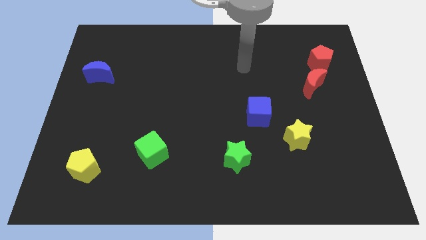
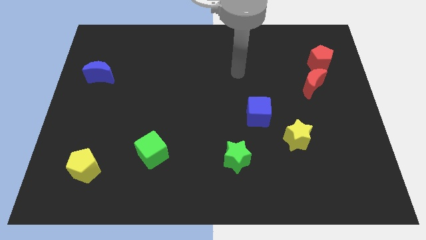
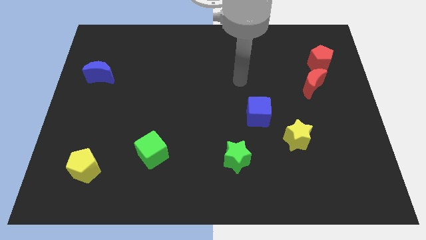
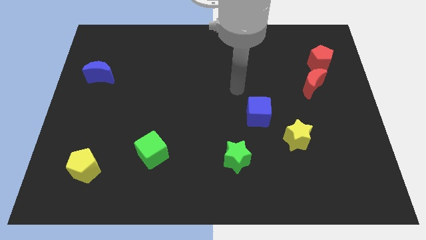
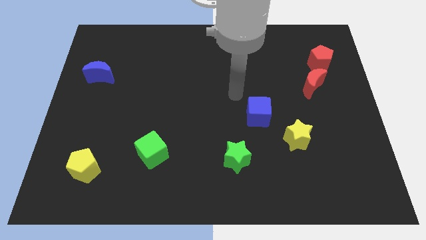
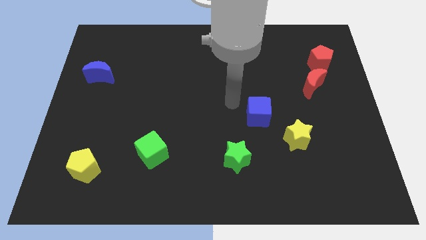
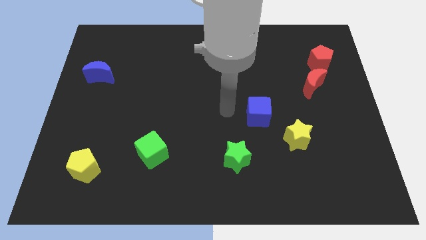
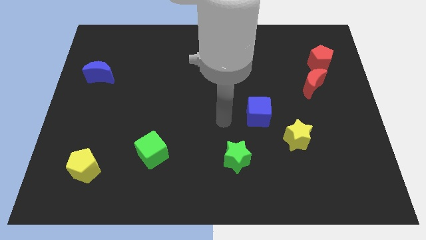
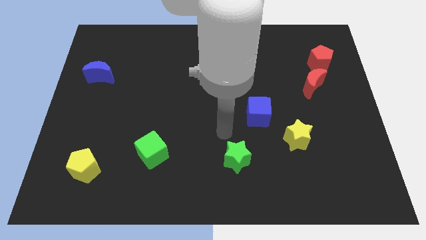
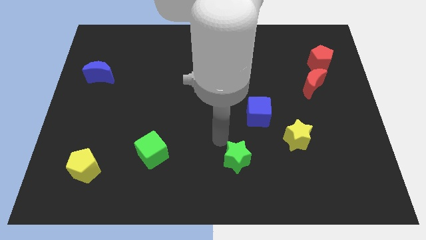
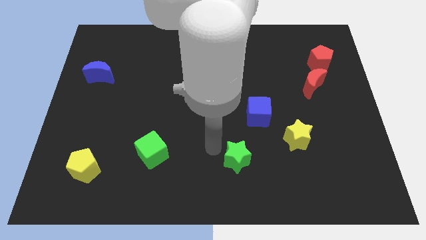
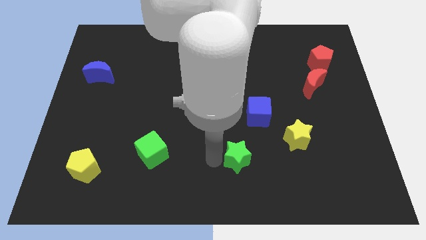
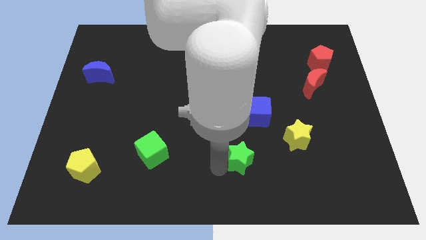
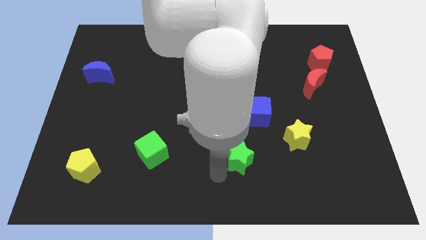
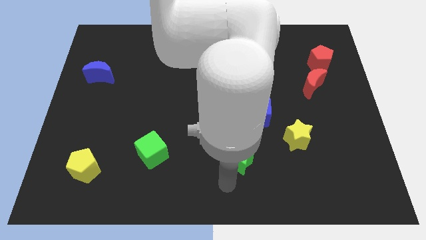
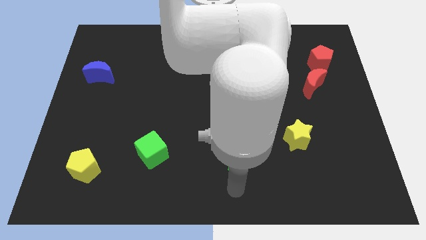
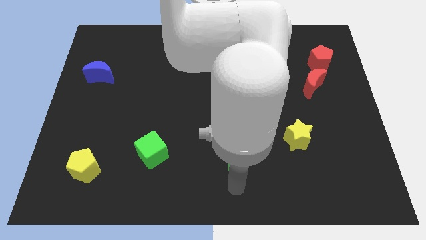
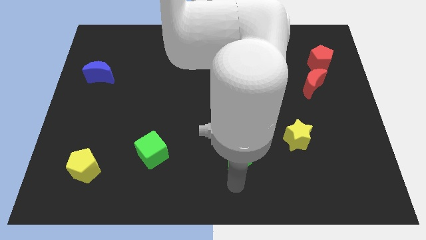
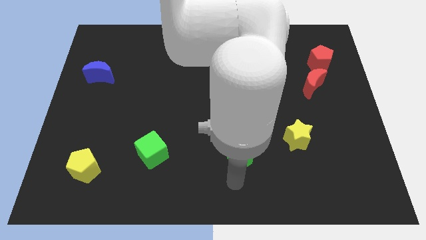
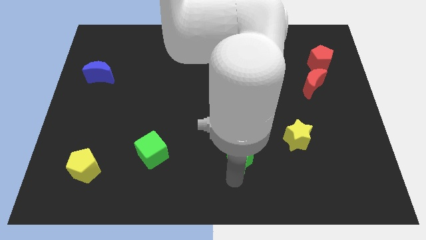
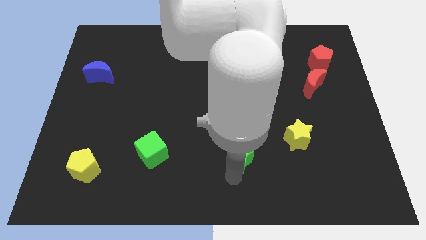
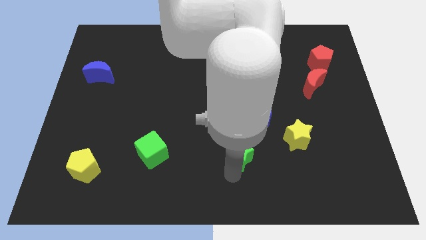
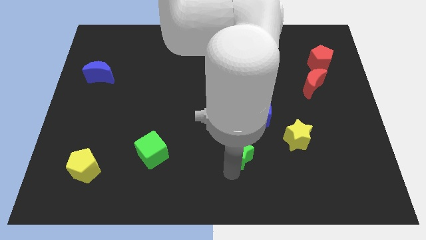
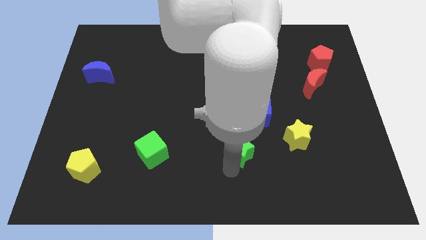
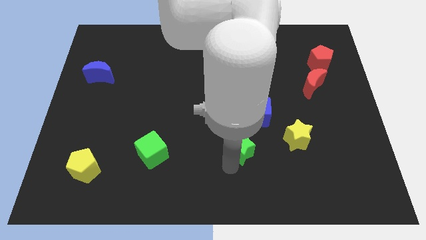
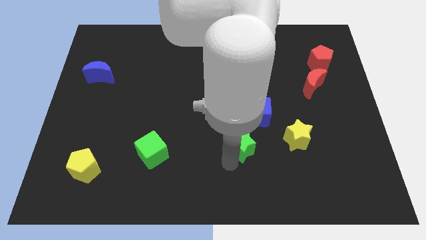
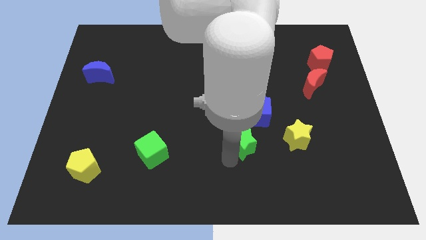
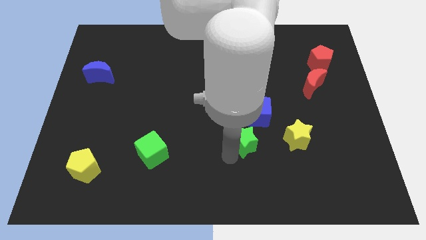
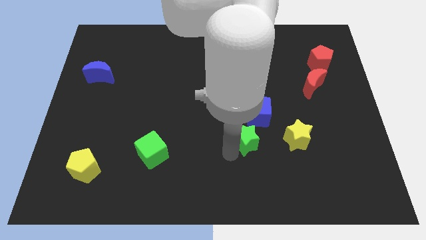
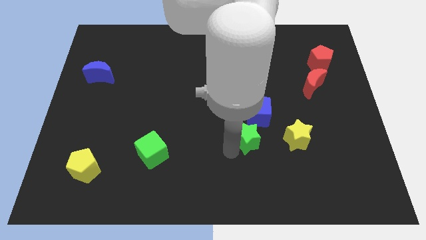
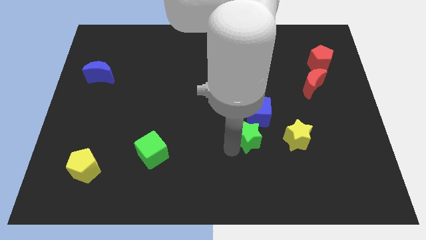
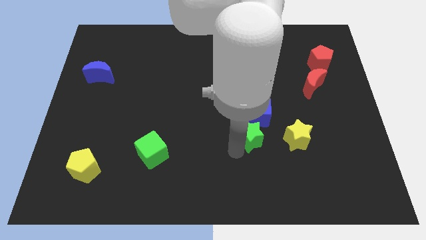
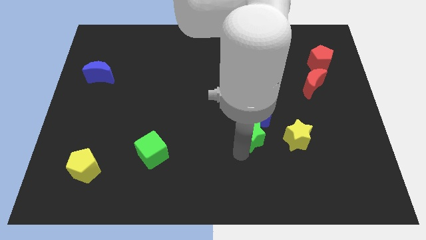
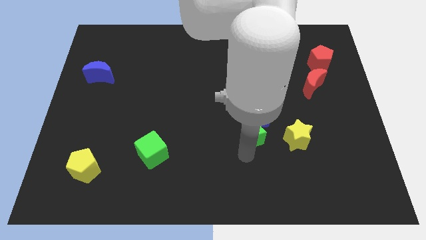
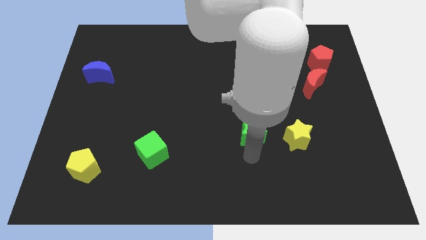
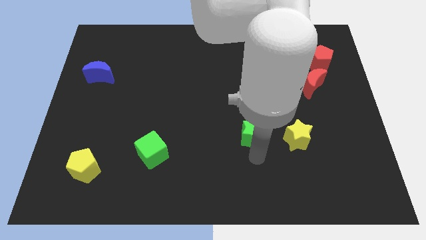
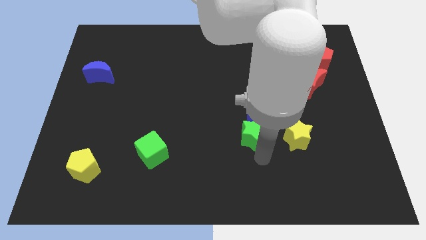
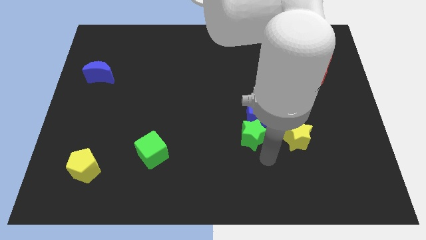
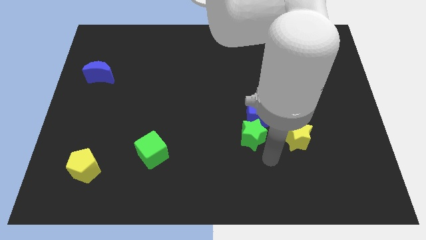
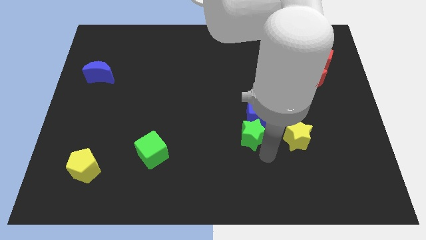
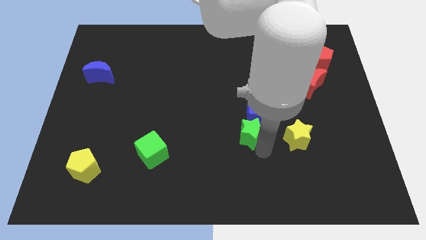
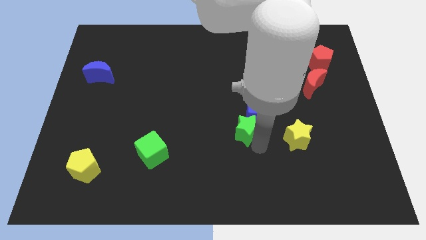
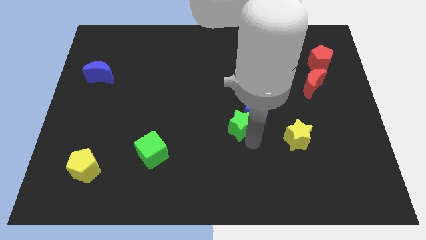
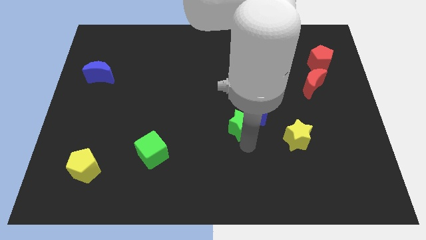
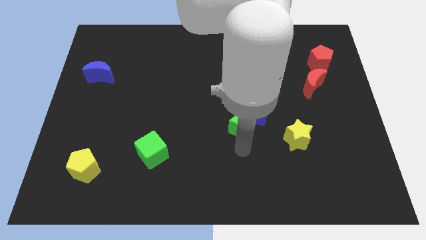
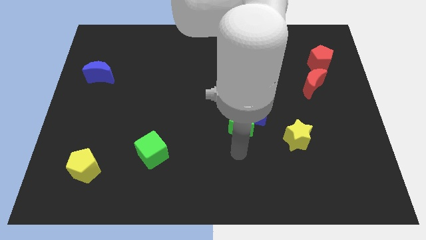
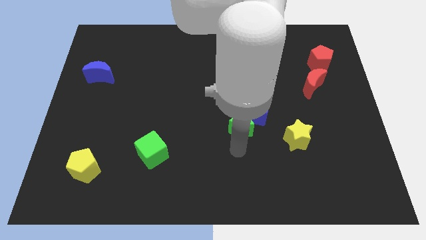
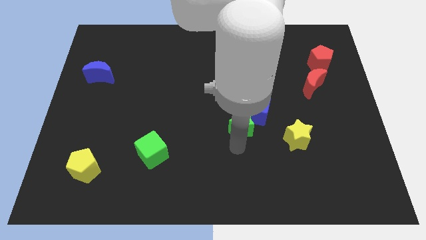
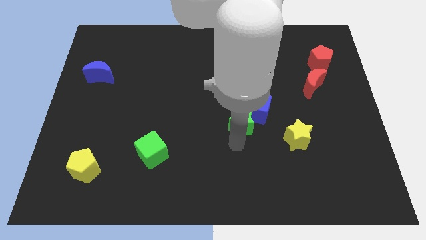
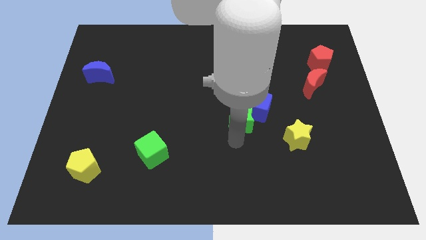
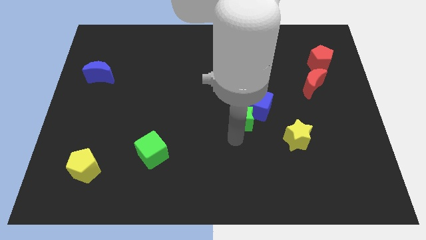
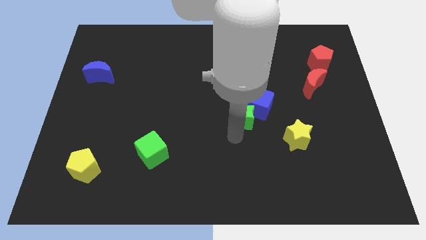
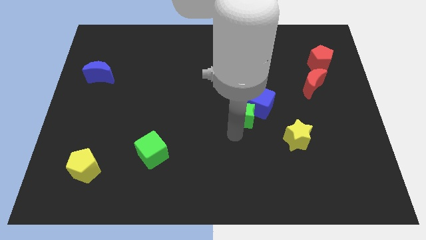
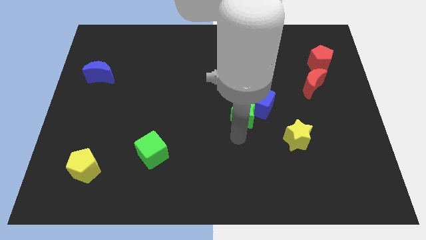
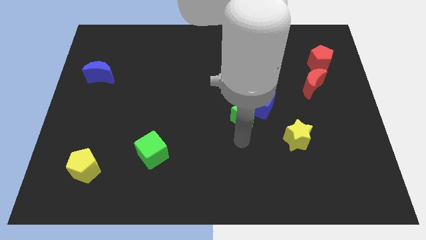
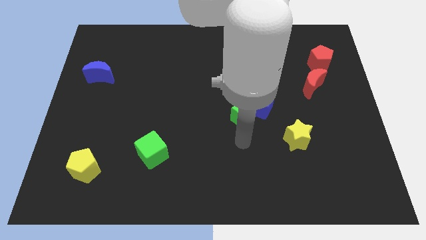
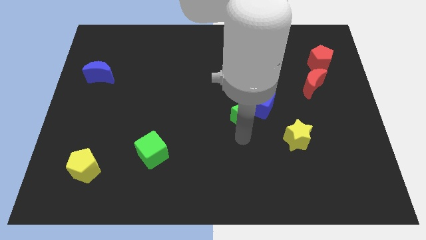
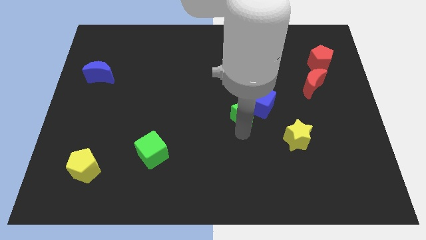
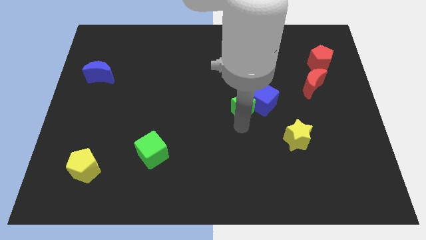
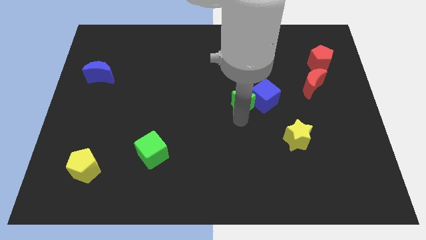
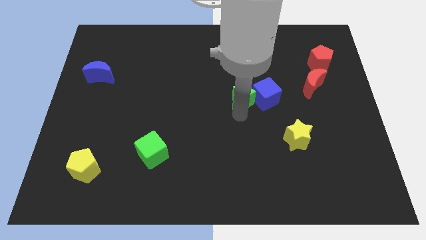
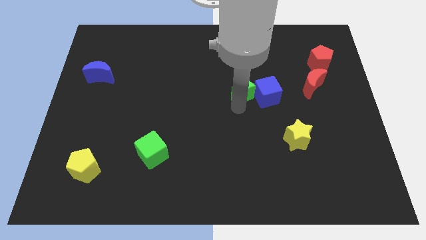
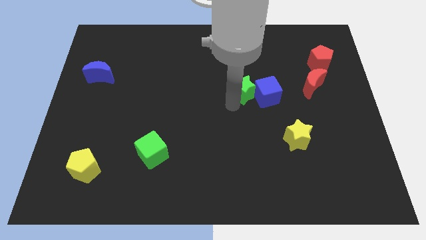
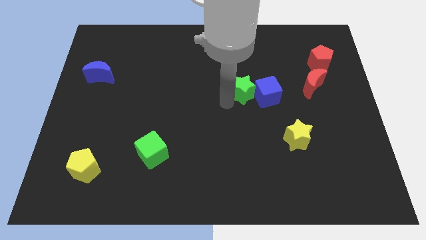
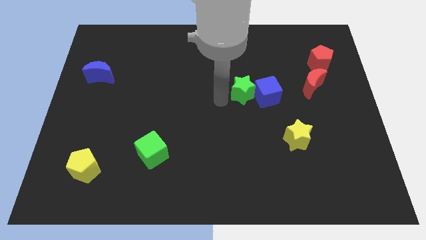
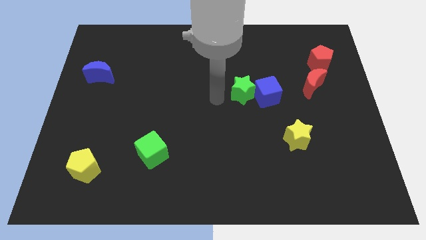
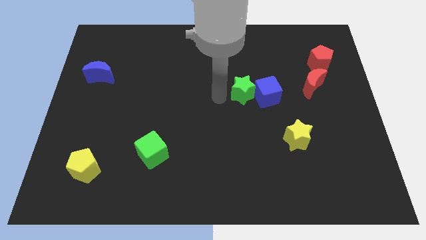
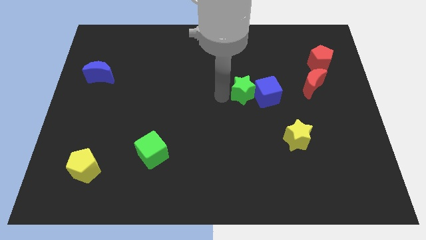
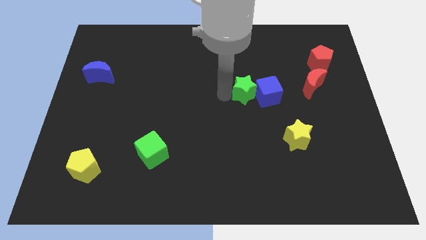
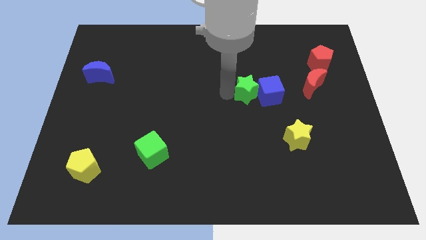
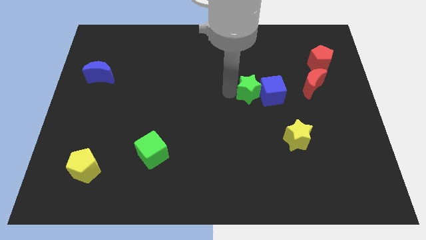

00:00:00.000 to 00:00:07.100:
push the green star left of the red moon

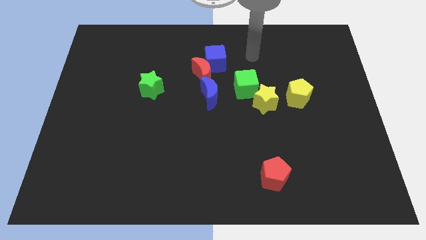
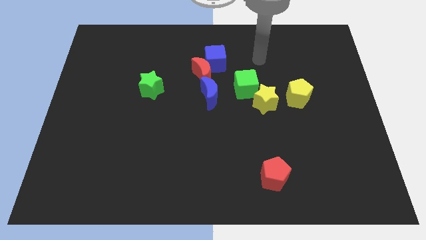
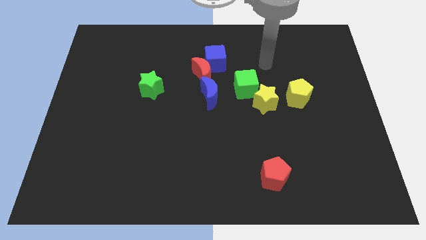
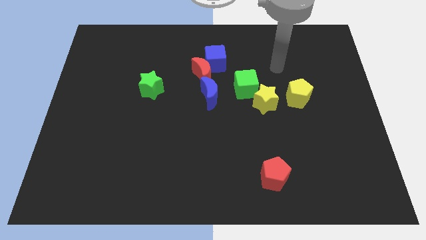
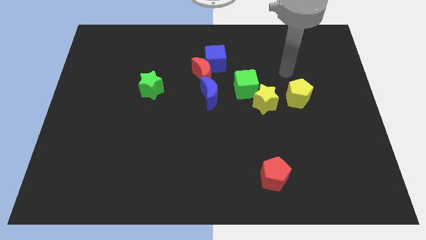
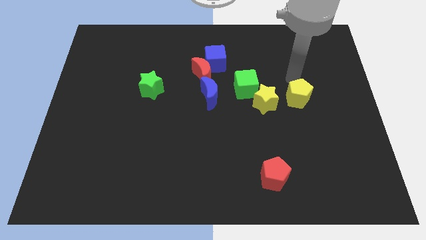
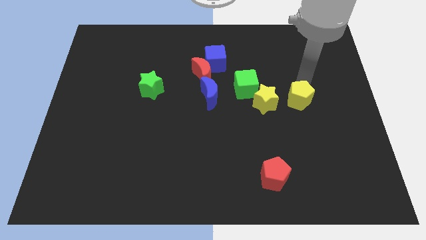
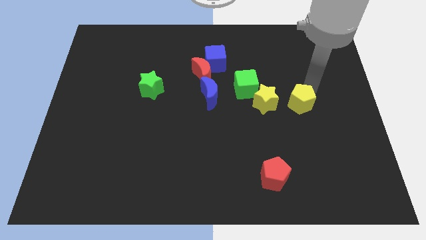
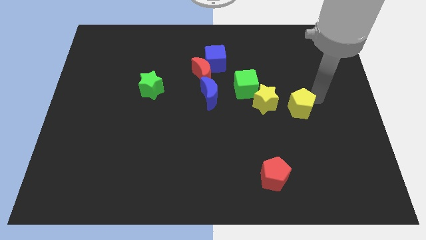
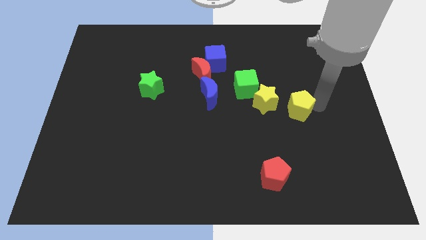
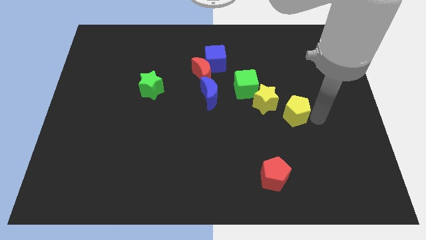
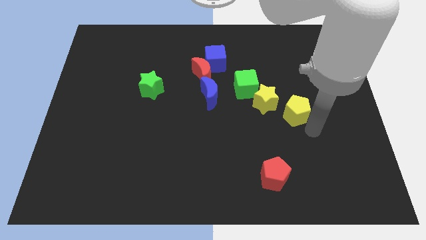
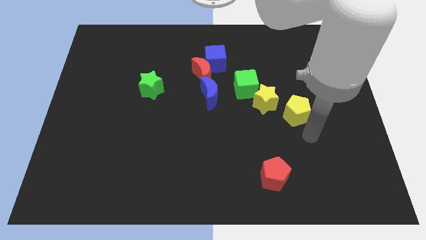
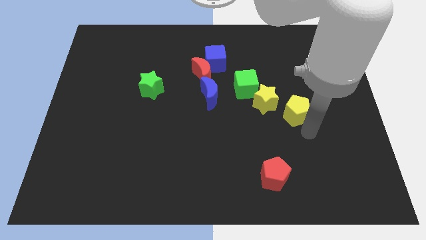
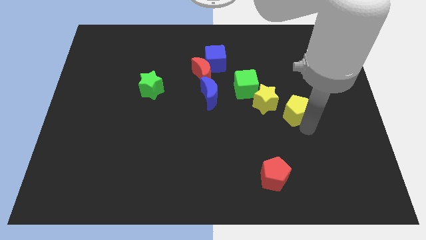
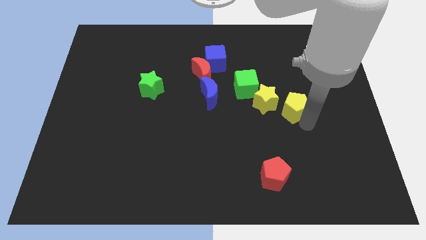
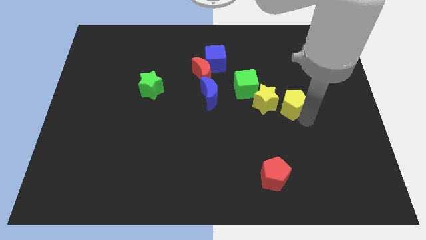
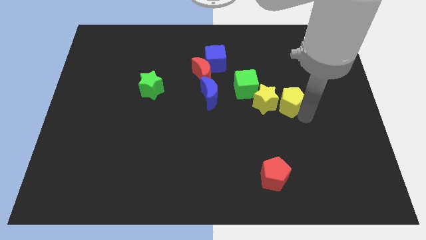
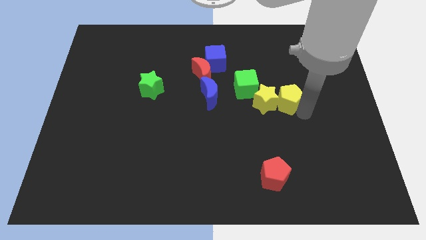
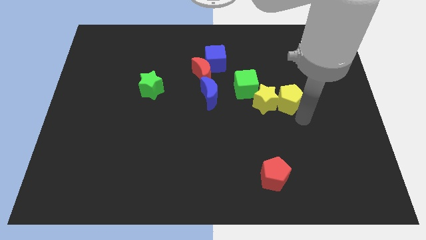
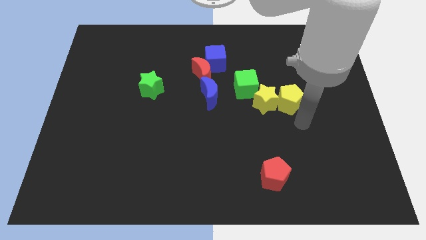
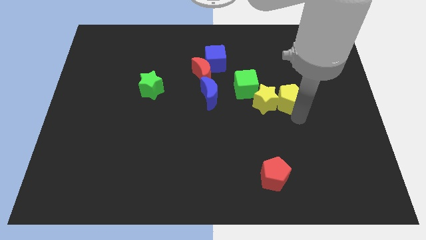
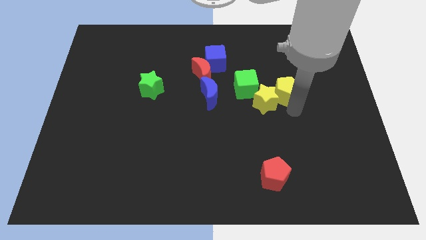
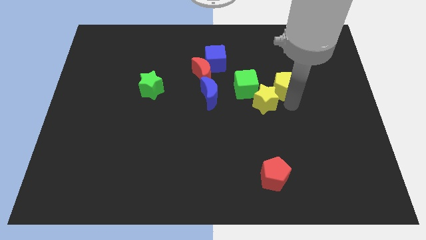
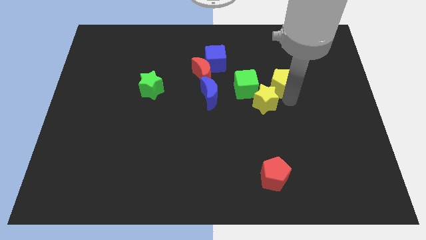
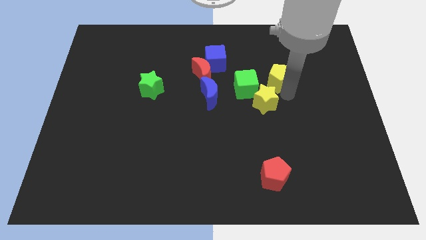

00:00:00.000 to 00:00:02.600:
slide the yellow pentagon diagonally up and to the right of the green cube
